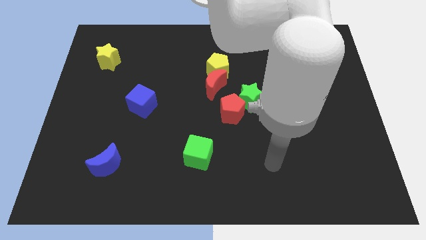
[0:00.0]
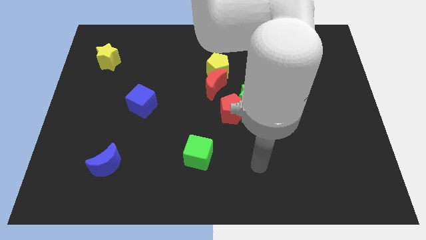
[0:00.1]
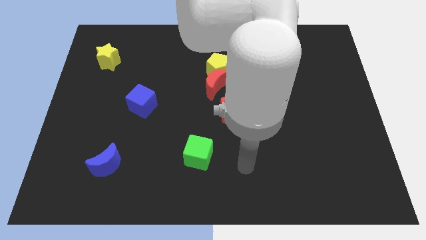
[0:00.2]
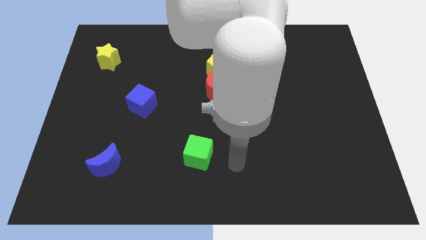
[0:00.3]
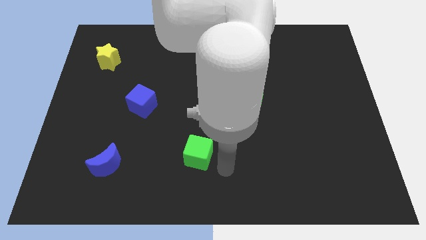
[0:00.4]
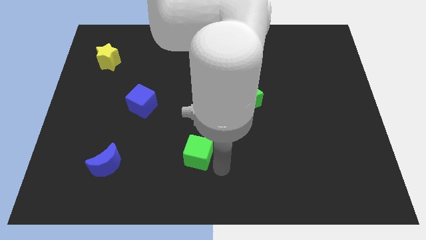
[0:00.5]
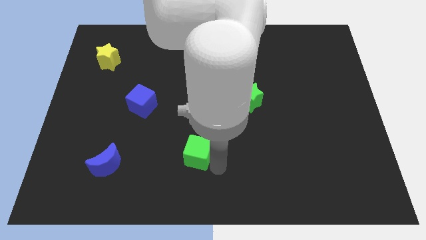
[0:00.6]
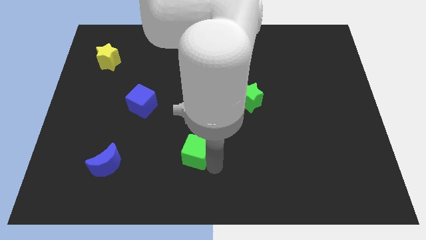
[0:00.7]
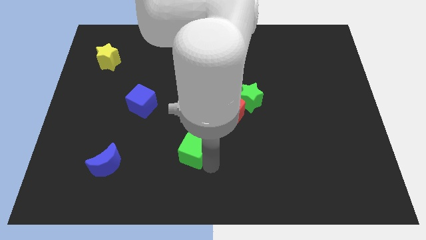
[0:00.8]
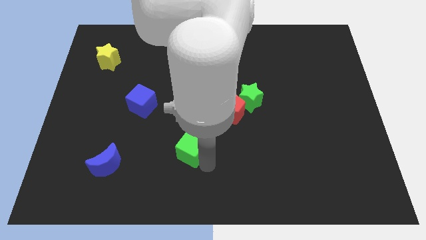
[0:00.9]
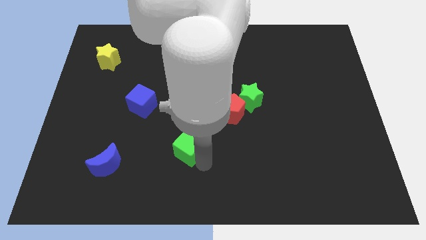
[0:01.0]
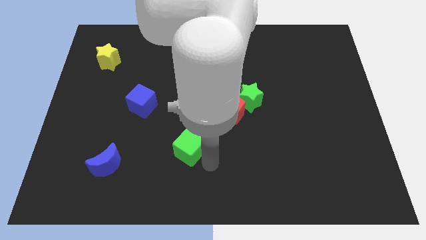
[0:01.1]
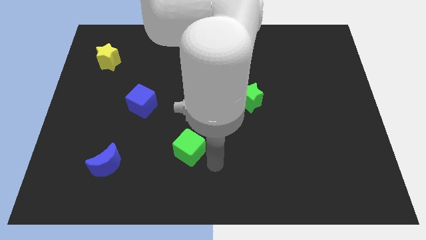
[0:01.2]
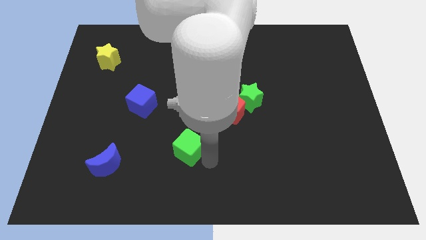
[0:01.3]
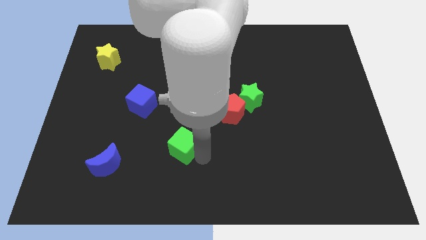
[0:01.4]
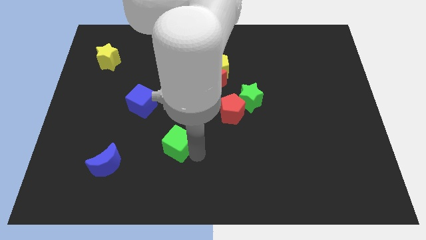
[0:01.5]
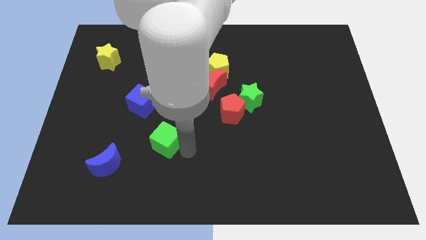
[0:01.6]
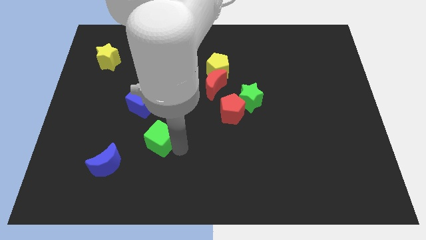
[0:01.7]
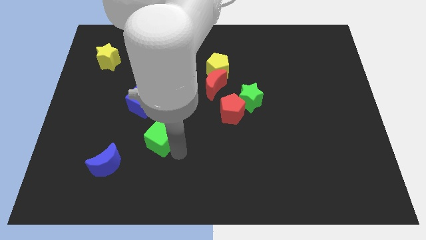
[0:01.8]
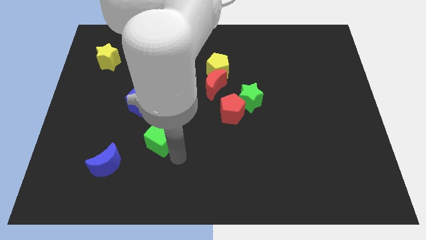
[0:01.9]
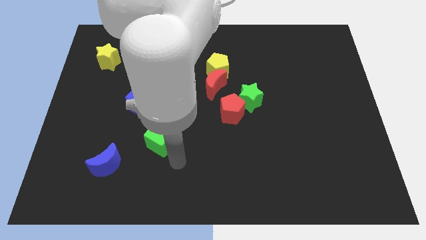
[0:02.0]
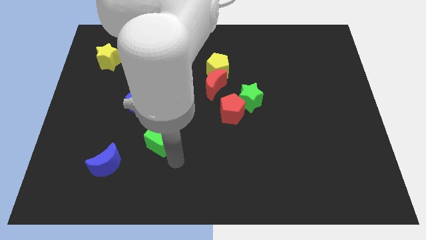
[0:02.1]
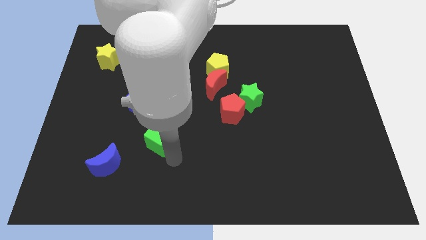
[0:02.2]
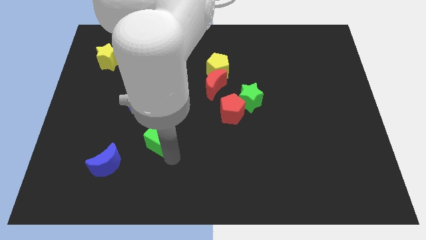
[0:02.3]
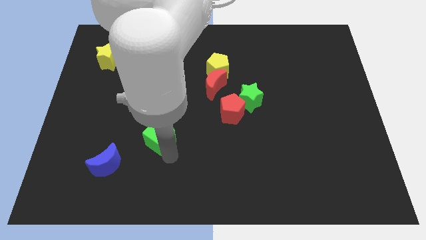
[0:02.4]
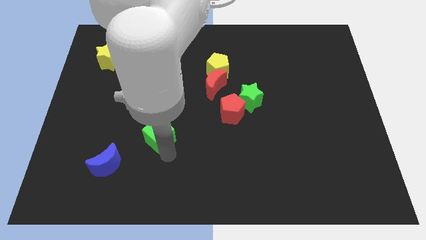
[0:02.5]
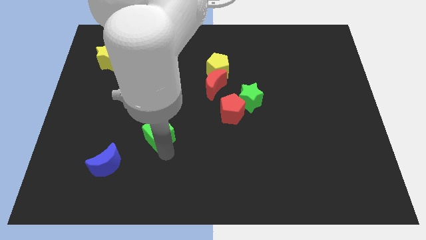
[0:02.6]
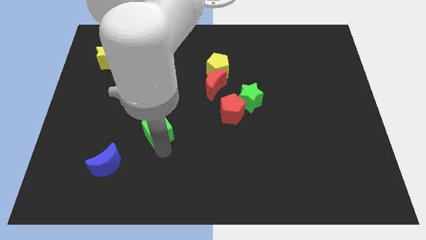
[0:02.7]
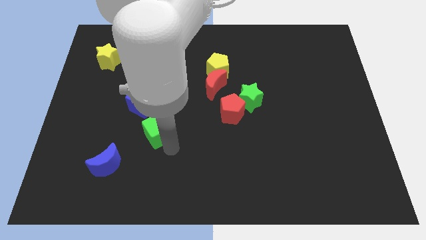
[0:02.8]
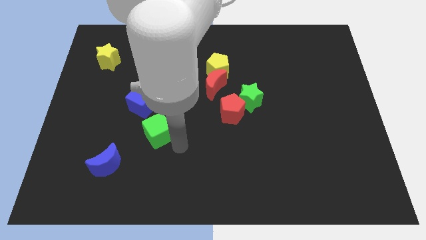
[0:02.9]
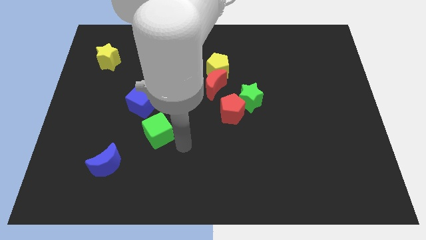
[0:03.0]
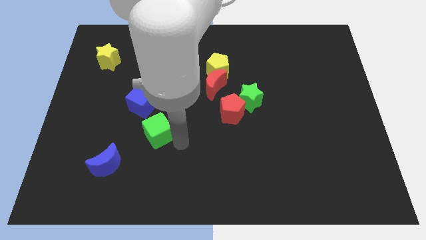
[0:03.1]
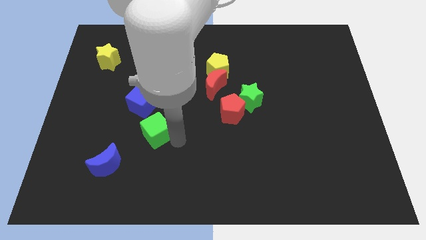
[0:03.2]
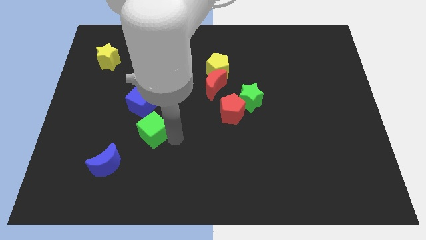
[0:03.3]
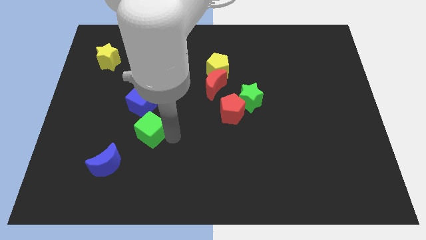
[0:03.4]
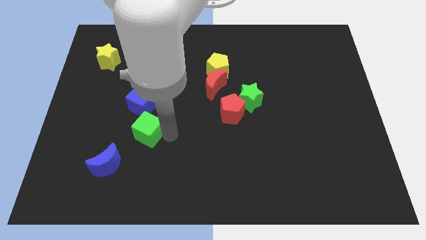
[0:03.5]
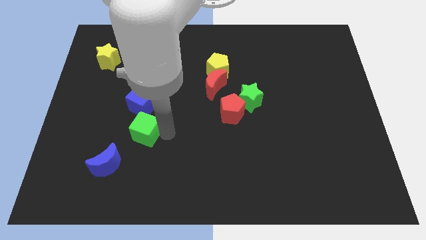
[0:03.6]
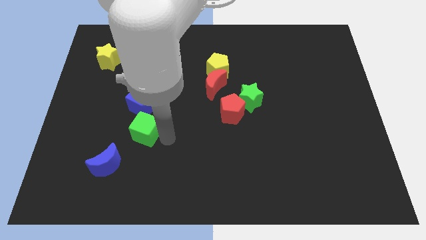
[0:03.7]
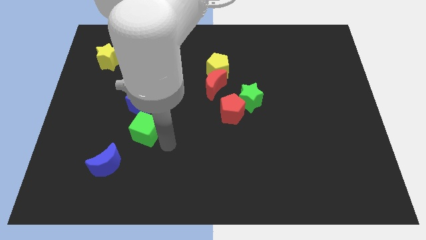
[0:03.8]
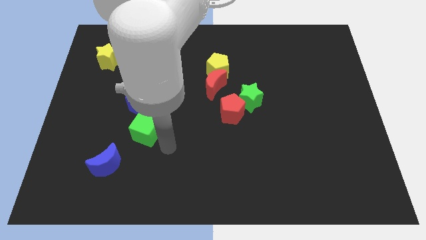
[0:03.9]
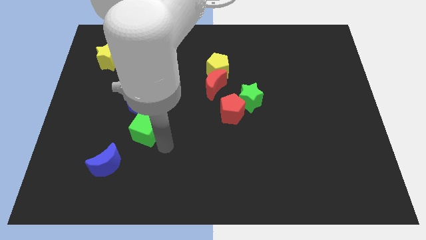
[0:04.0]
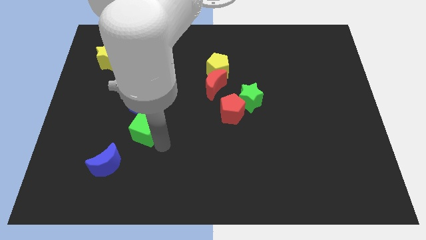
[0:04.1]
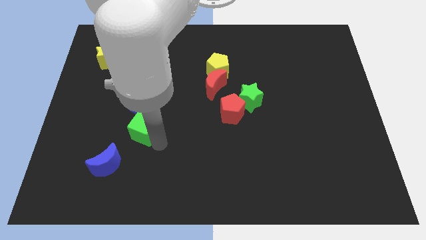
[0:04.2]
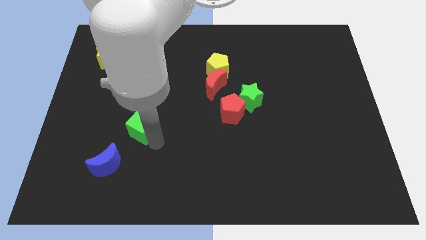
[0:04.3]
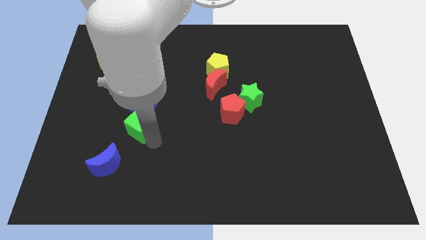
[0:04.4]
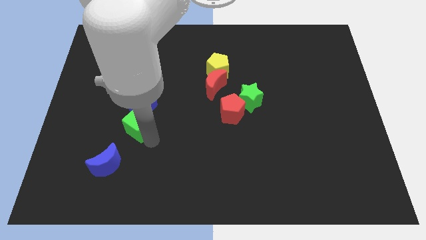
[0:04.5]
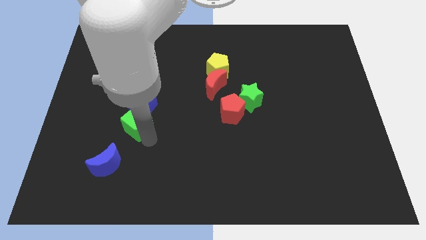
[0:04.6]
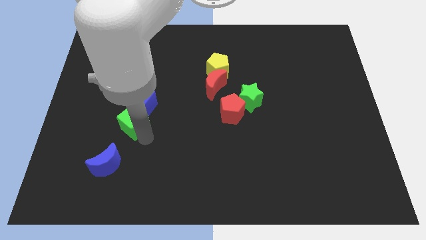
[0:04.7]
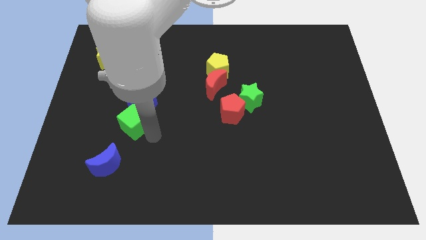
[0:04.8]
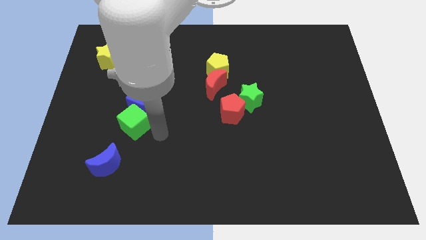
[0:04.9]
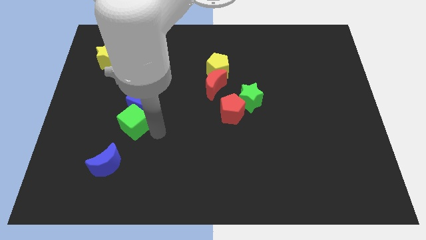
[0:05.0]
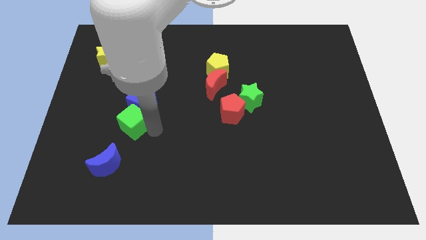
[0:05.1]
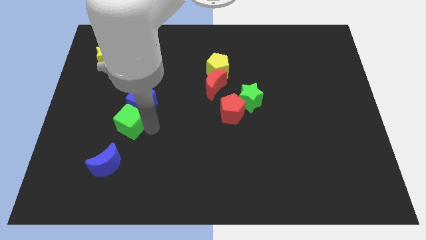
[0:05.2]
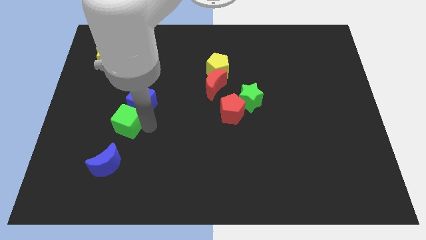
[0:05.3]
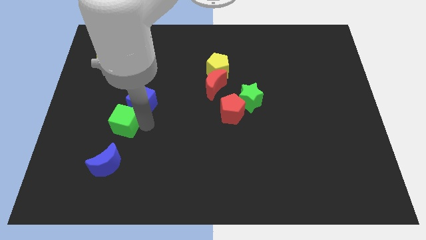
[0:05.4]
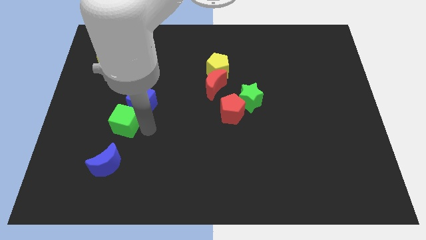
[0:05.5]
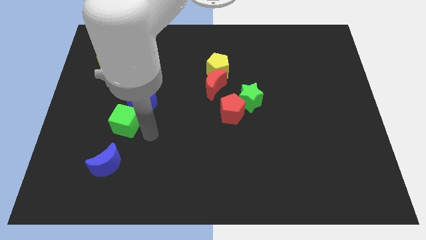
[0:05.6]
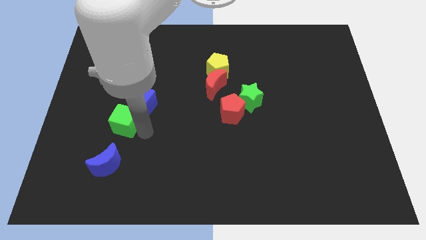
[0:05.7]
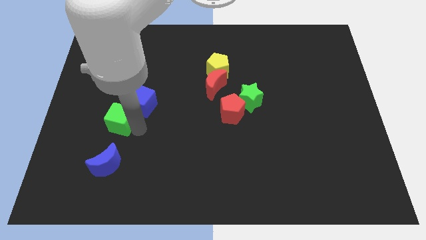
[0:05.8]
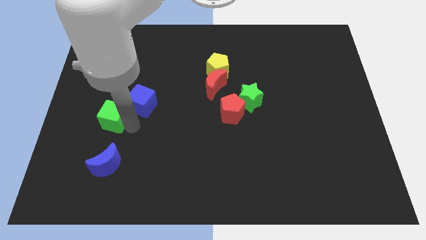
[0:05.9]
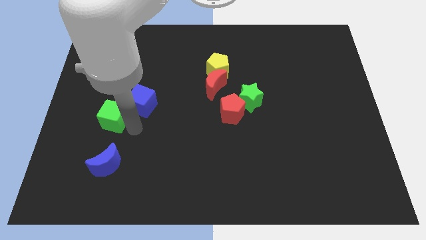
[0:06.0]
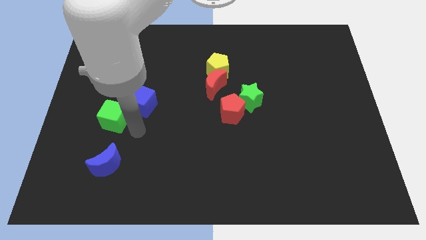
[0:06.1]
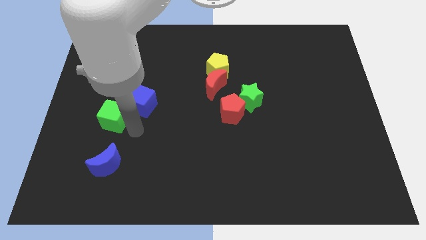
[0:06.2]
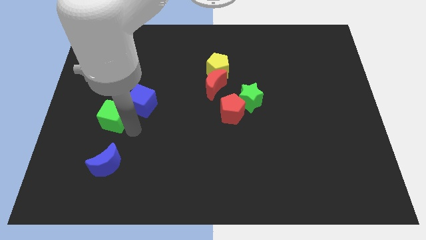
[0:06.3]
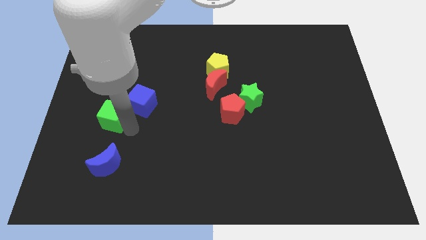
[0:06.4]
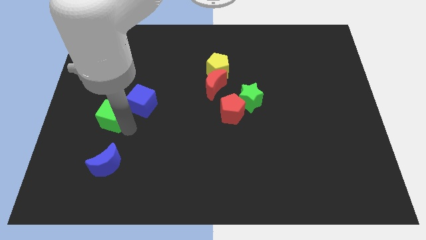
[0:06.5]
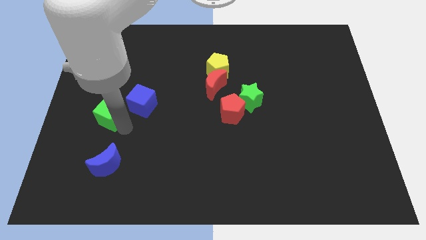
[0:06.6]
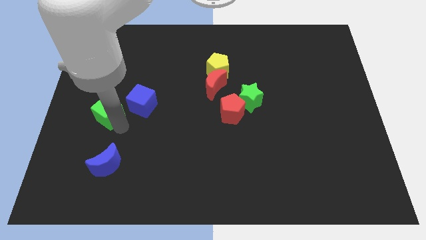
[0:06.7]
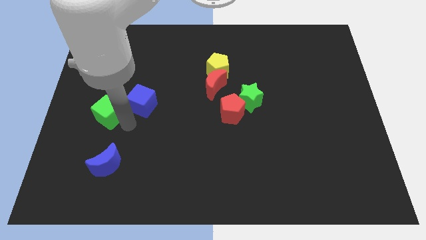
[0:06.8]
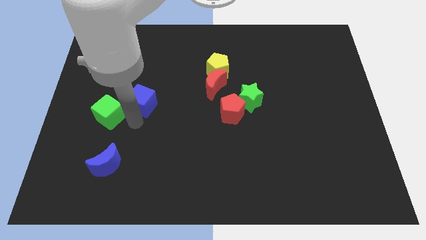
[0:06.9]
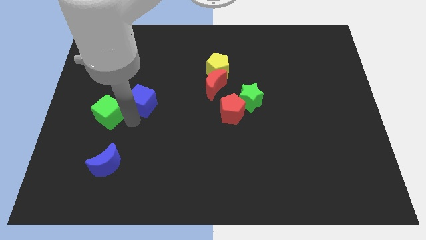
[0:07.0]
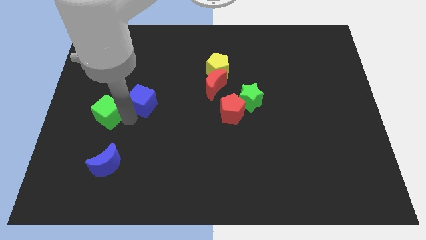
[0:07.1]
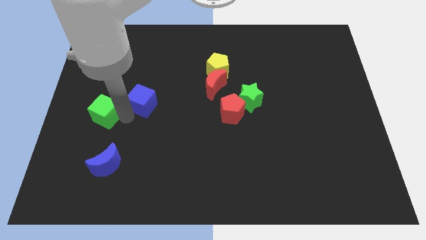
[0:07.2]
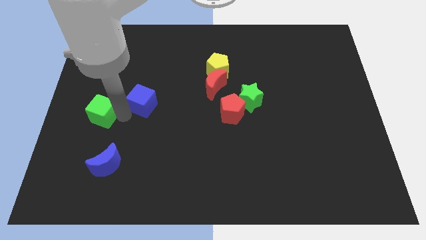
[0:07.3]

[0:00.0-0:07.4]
move the green cube to the left side
